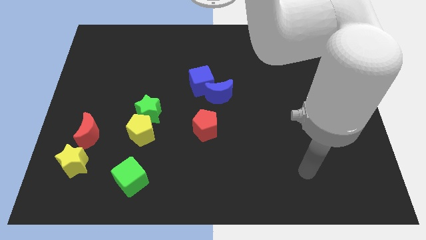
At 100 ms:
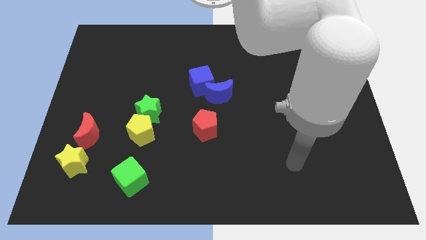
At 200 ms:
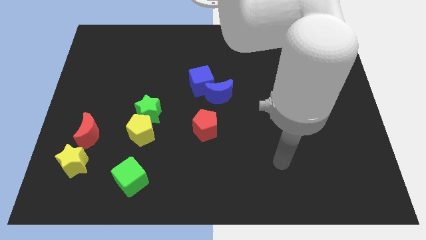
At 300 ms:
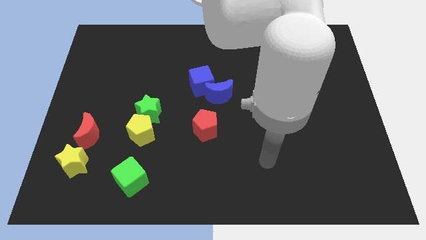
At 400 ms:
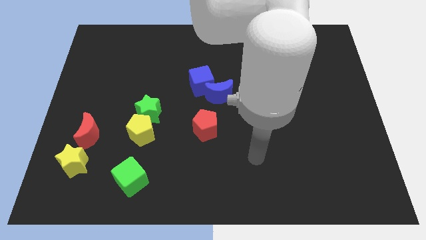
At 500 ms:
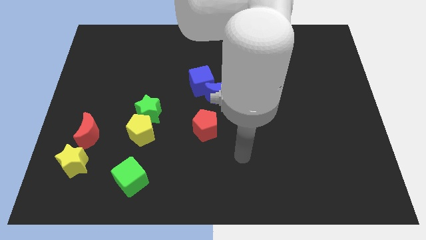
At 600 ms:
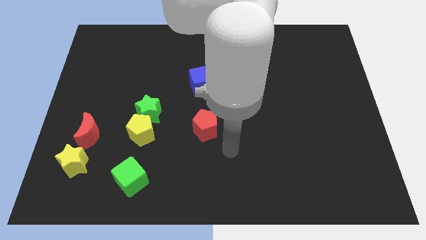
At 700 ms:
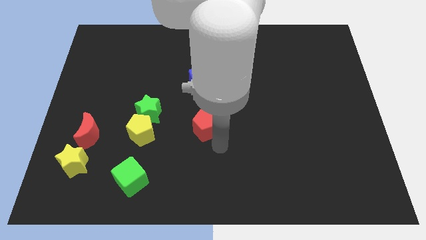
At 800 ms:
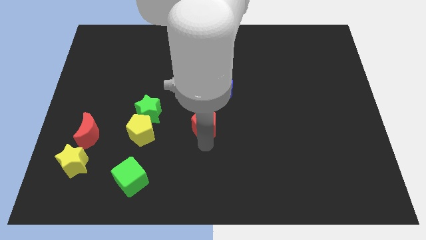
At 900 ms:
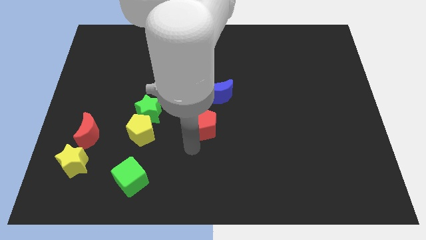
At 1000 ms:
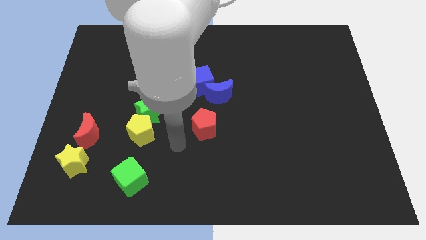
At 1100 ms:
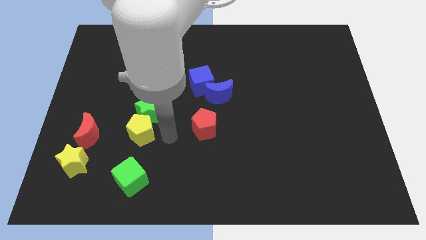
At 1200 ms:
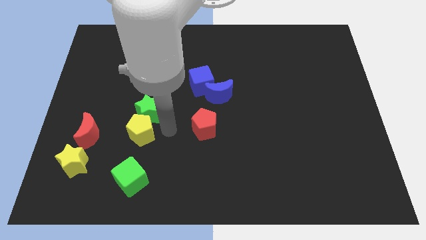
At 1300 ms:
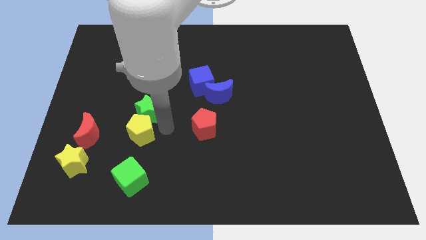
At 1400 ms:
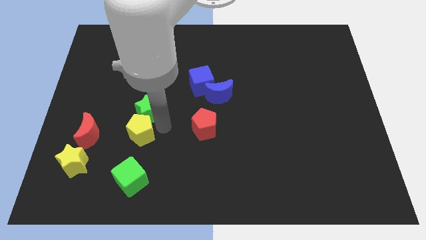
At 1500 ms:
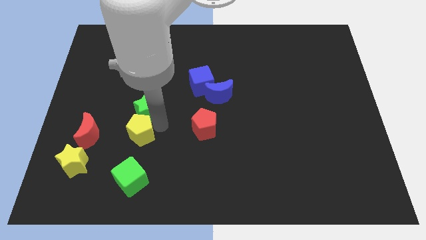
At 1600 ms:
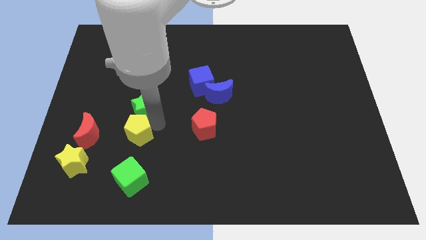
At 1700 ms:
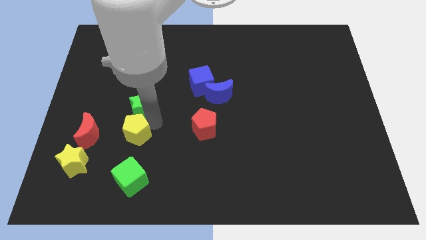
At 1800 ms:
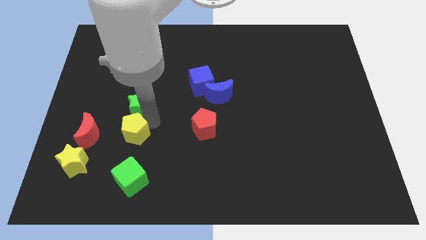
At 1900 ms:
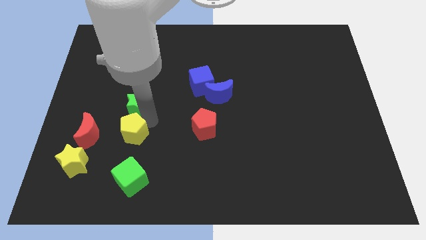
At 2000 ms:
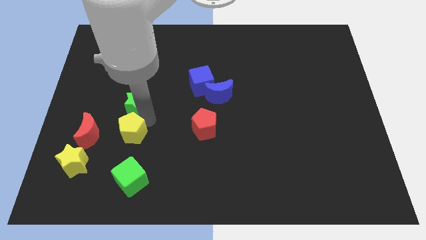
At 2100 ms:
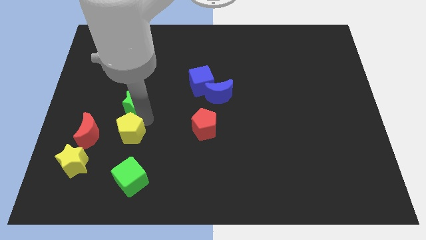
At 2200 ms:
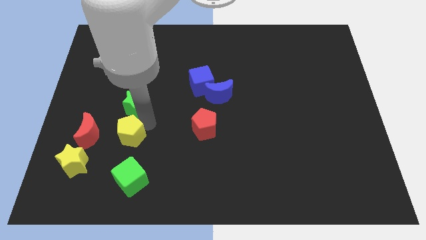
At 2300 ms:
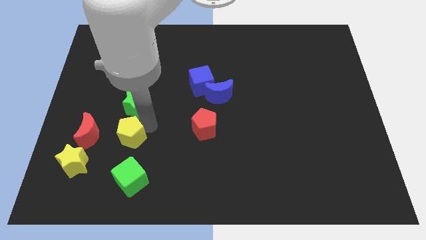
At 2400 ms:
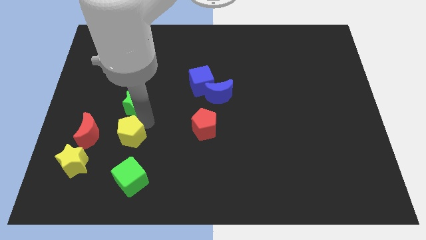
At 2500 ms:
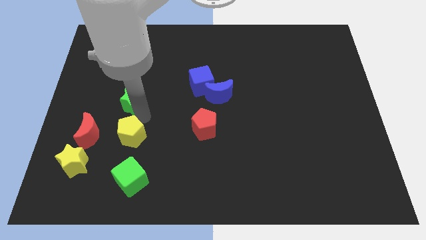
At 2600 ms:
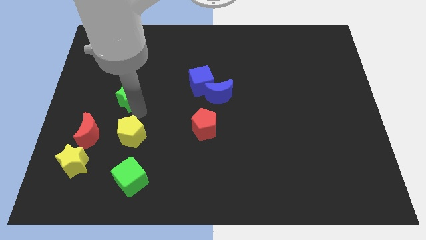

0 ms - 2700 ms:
push the green star somewhat up and to the left

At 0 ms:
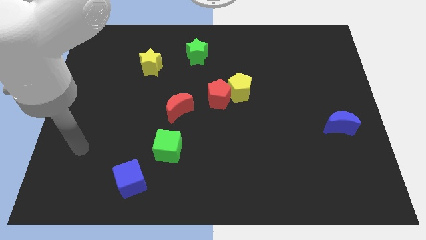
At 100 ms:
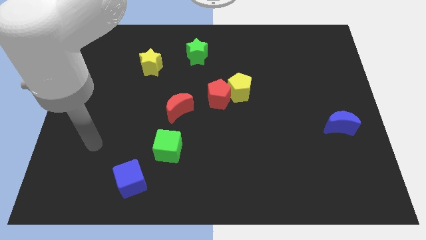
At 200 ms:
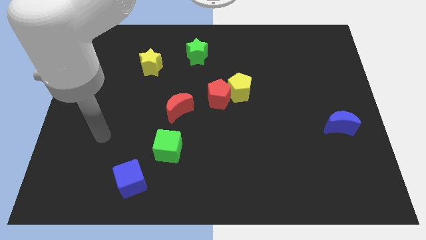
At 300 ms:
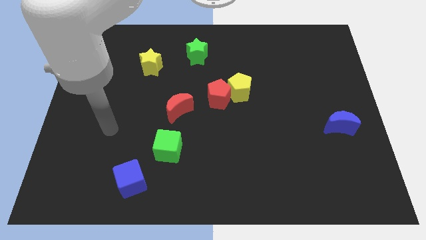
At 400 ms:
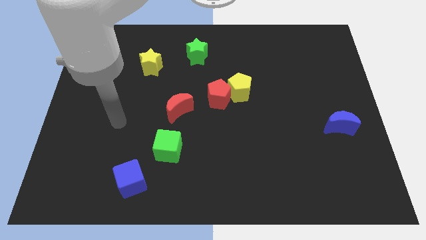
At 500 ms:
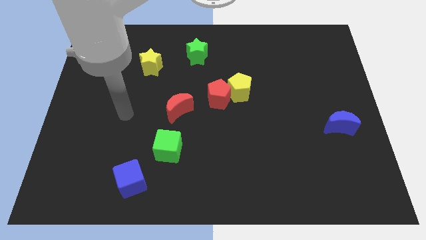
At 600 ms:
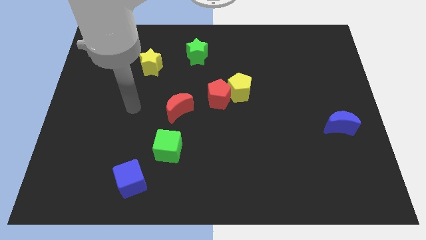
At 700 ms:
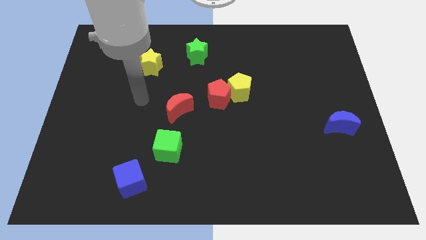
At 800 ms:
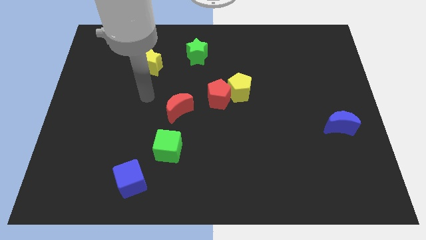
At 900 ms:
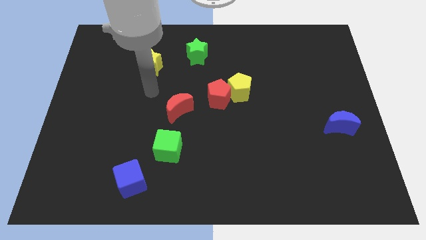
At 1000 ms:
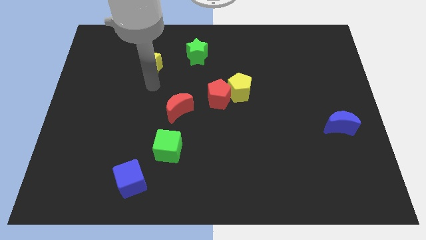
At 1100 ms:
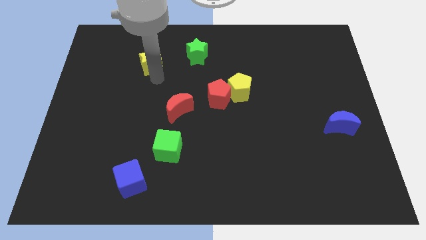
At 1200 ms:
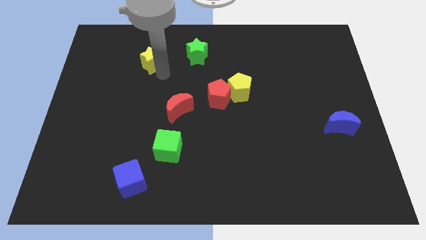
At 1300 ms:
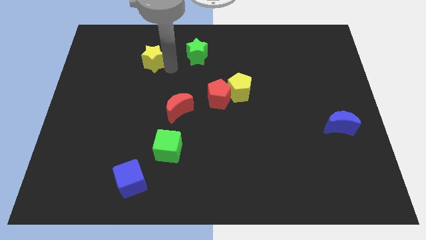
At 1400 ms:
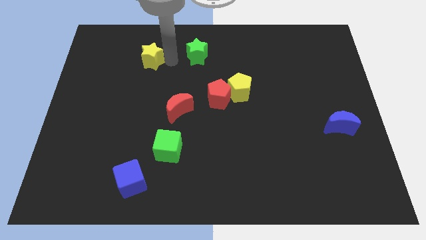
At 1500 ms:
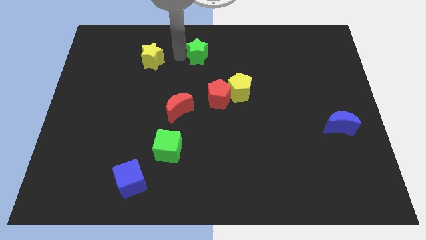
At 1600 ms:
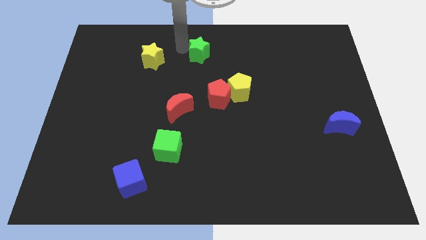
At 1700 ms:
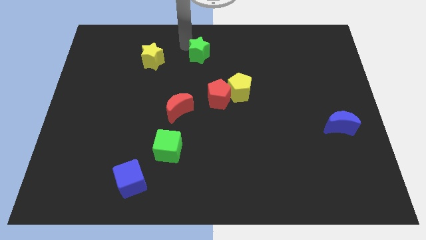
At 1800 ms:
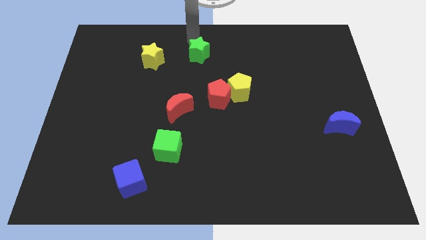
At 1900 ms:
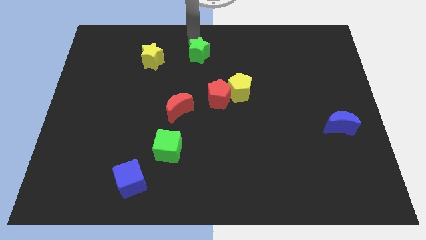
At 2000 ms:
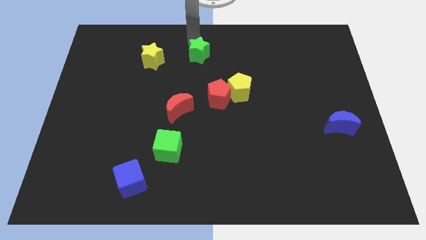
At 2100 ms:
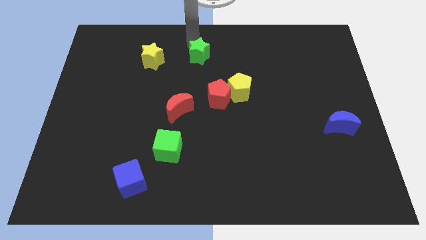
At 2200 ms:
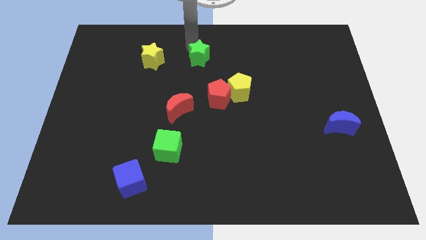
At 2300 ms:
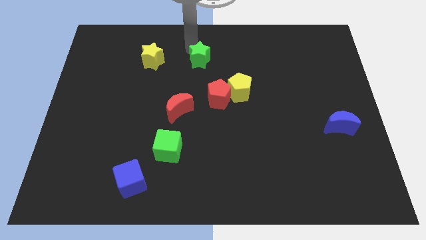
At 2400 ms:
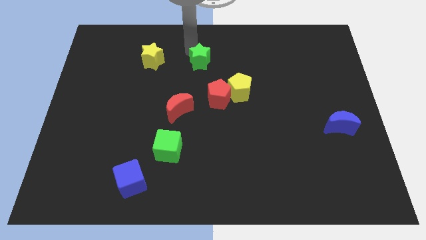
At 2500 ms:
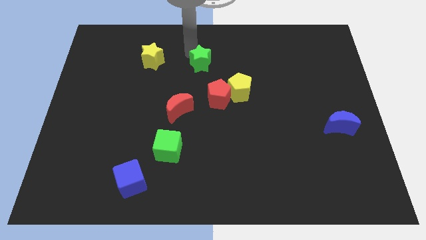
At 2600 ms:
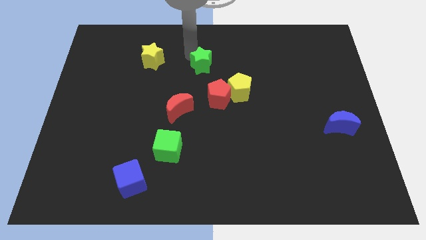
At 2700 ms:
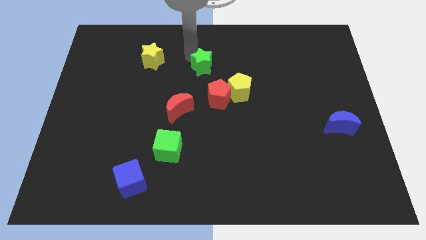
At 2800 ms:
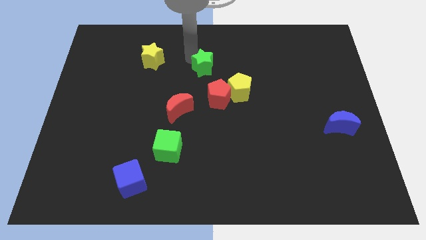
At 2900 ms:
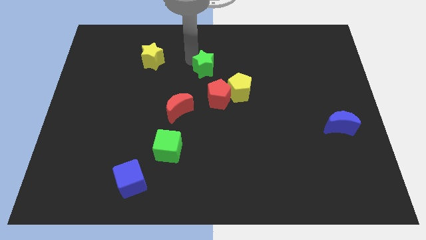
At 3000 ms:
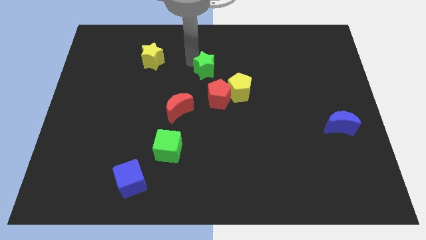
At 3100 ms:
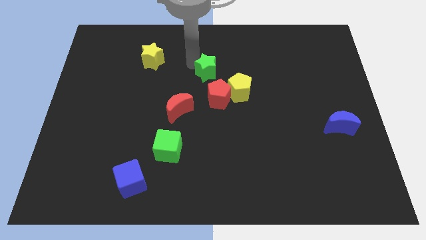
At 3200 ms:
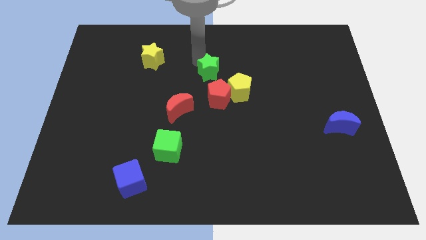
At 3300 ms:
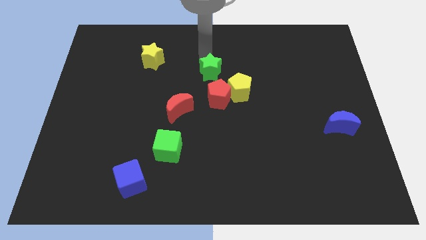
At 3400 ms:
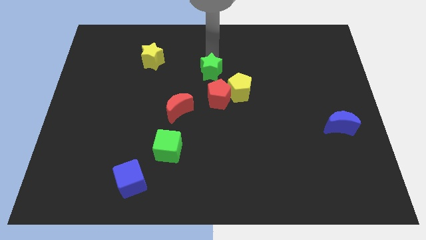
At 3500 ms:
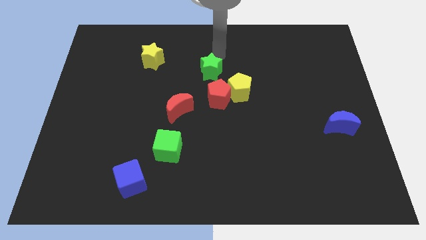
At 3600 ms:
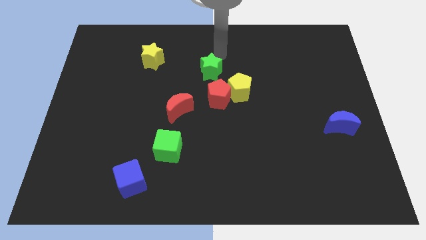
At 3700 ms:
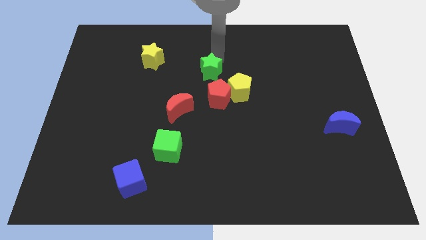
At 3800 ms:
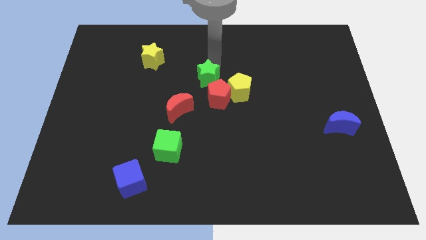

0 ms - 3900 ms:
move the green star downwards slightly

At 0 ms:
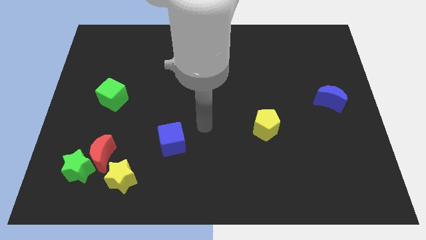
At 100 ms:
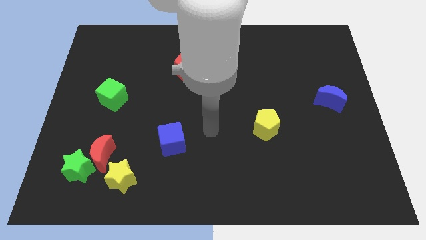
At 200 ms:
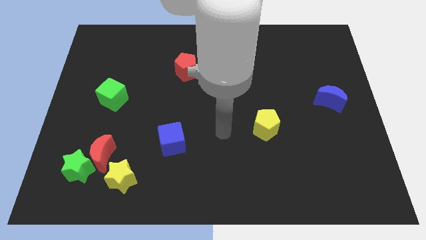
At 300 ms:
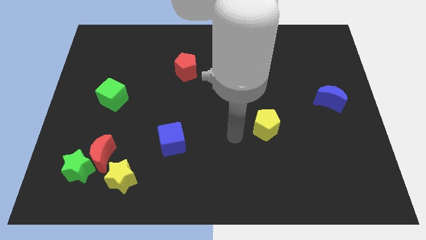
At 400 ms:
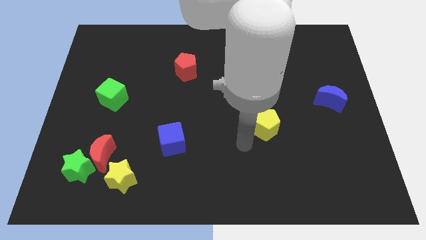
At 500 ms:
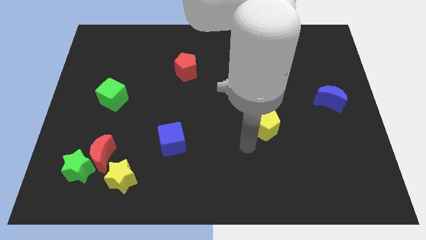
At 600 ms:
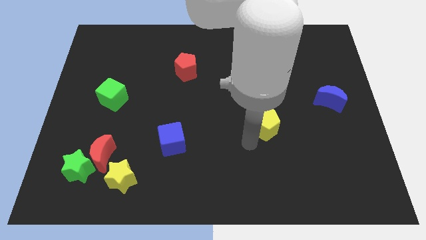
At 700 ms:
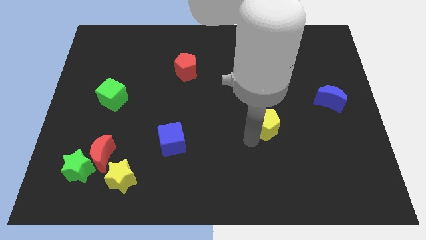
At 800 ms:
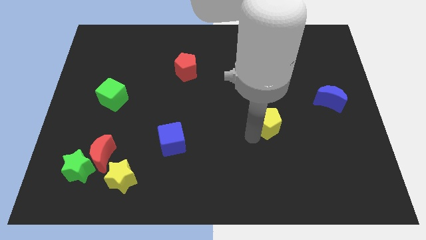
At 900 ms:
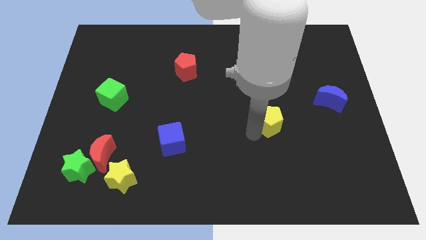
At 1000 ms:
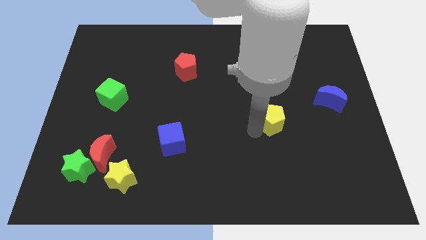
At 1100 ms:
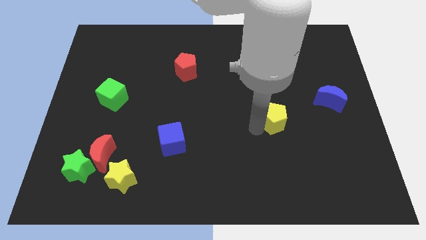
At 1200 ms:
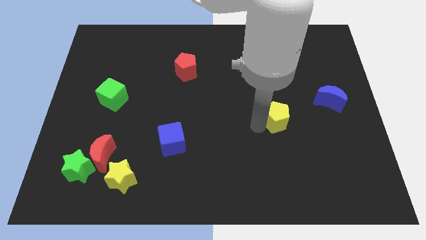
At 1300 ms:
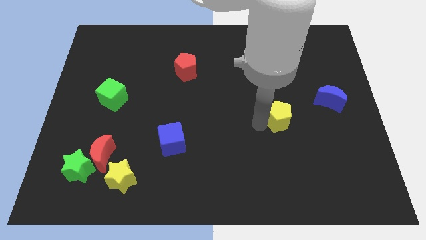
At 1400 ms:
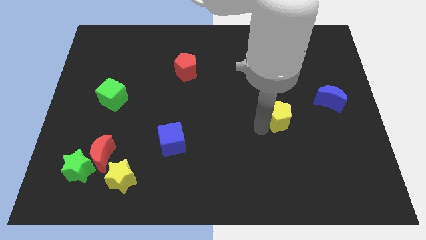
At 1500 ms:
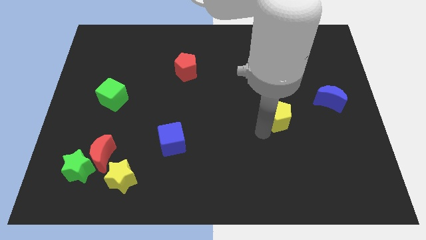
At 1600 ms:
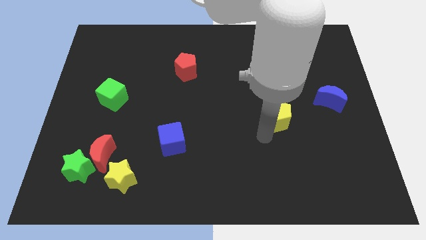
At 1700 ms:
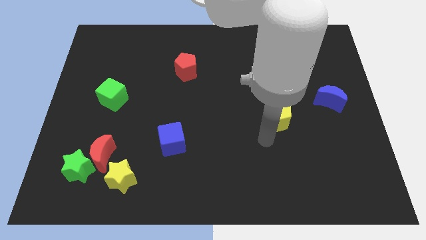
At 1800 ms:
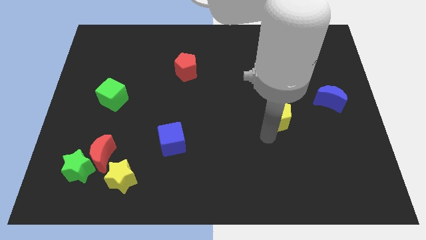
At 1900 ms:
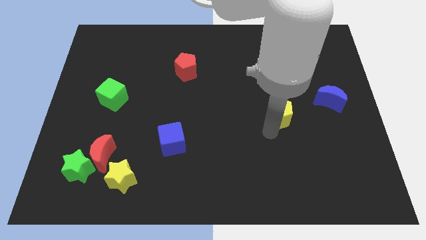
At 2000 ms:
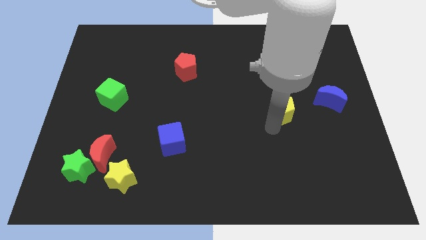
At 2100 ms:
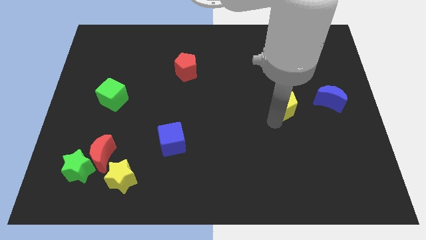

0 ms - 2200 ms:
move the yellow pentagon a little diagonally up and right

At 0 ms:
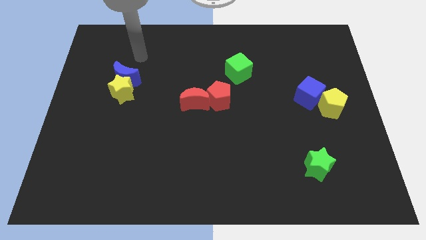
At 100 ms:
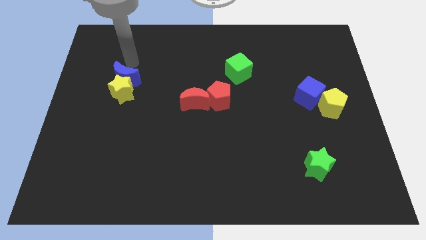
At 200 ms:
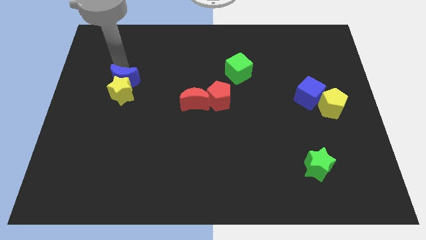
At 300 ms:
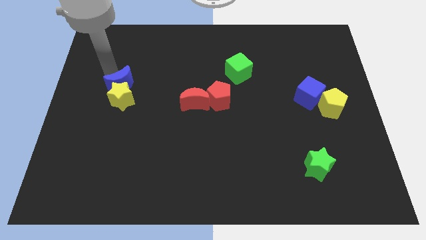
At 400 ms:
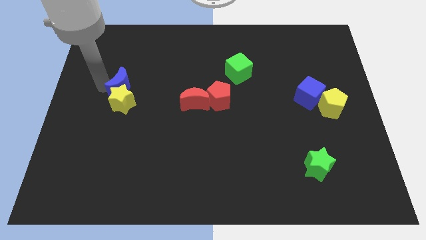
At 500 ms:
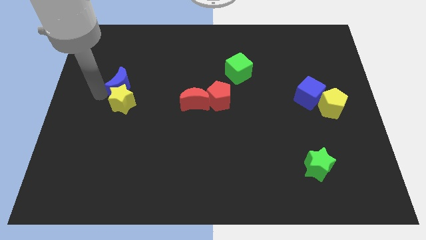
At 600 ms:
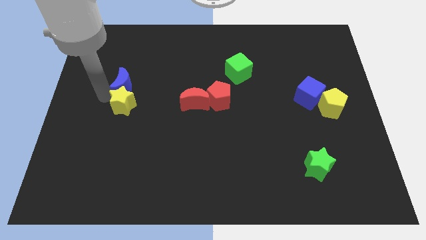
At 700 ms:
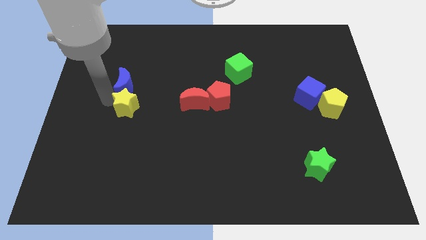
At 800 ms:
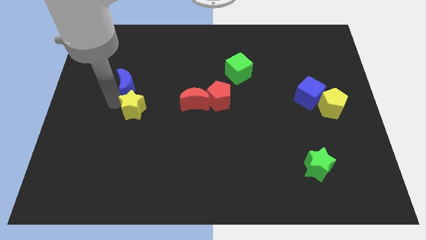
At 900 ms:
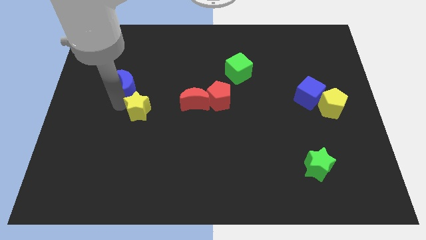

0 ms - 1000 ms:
push the yellow star down and then right somewhat
